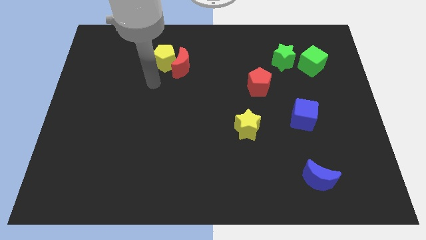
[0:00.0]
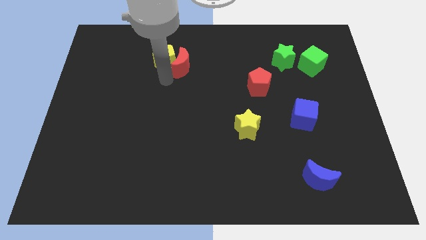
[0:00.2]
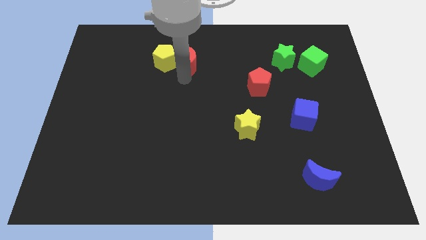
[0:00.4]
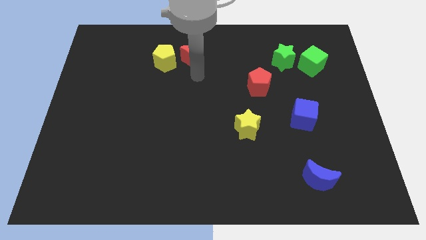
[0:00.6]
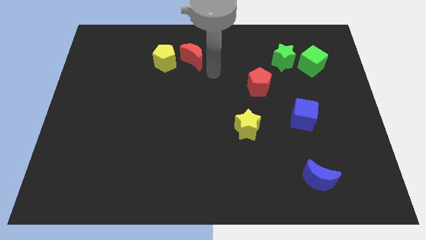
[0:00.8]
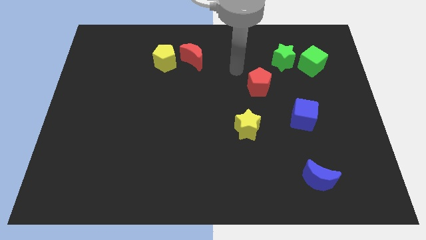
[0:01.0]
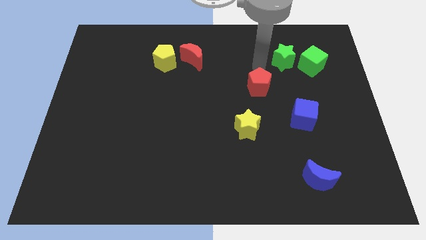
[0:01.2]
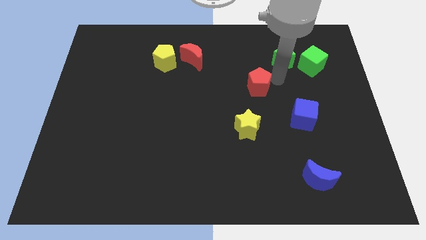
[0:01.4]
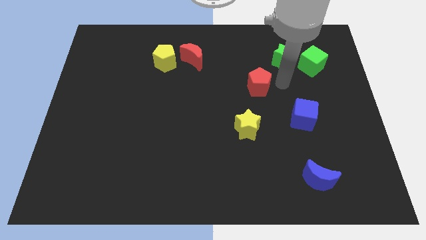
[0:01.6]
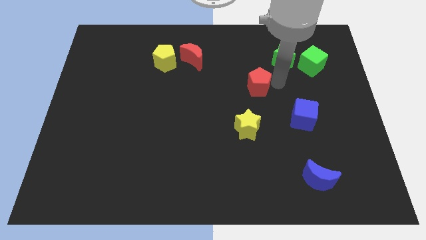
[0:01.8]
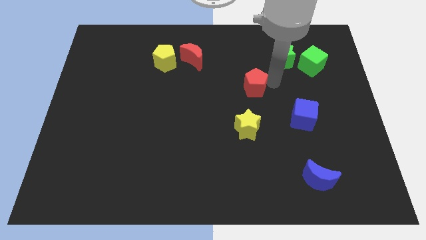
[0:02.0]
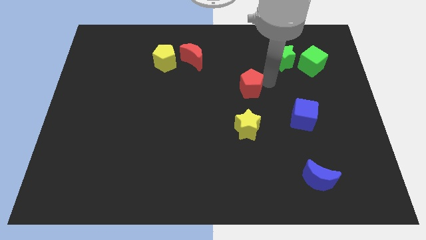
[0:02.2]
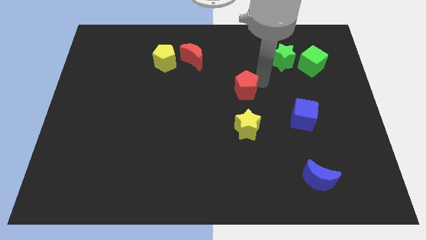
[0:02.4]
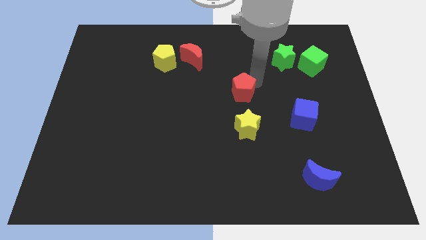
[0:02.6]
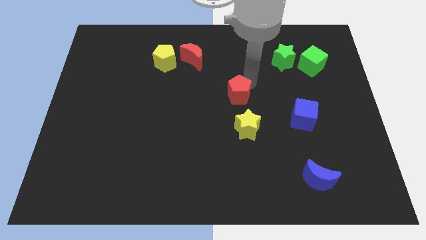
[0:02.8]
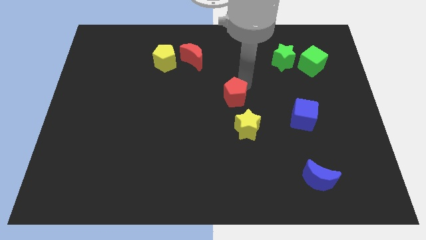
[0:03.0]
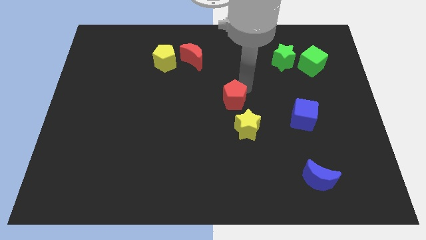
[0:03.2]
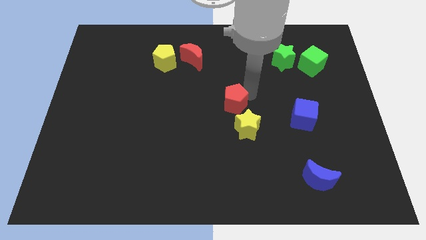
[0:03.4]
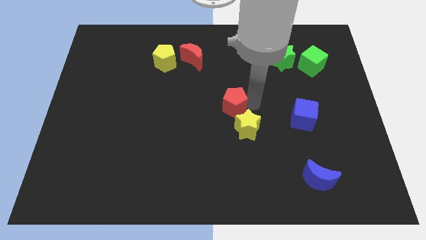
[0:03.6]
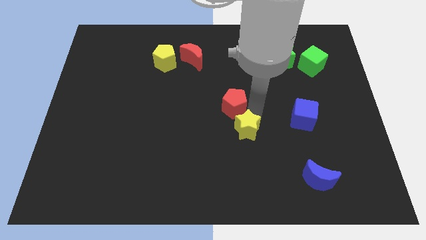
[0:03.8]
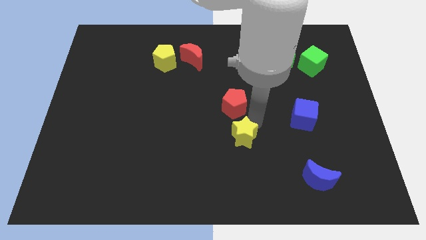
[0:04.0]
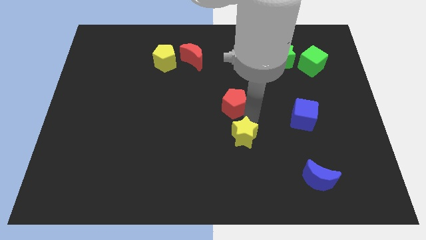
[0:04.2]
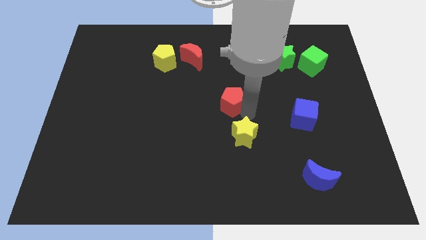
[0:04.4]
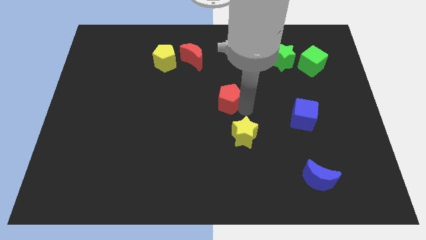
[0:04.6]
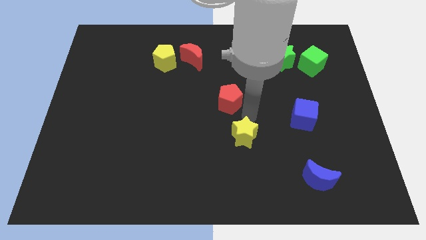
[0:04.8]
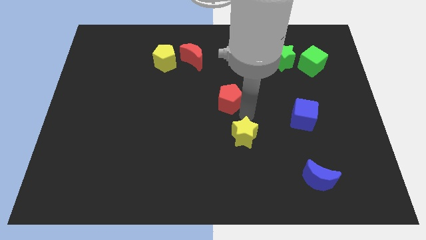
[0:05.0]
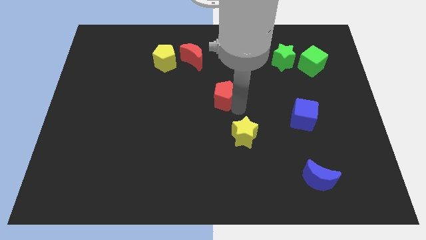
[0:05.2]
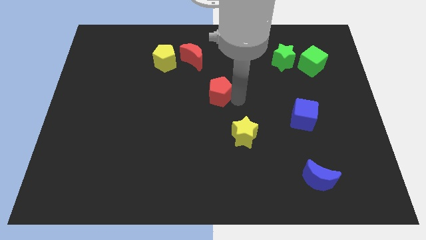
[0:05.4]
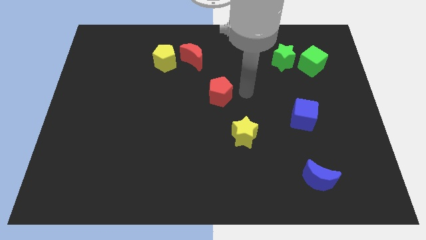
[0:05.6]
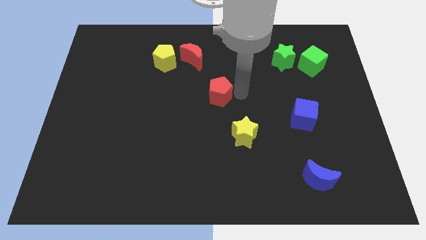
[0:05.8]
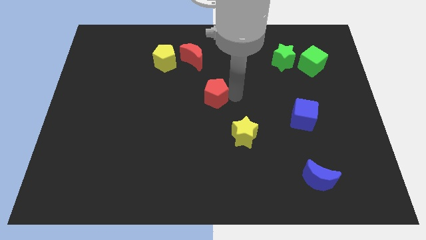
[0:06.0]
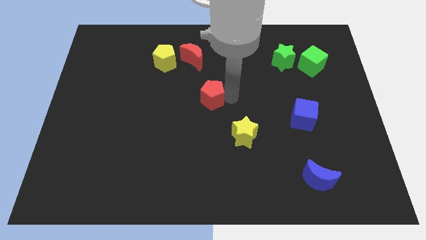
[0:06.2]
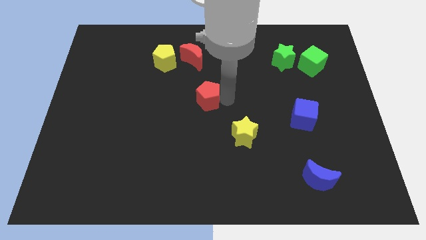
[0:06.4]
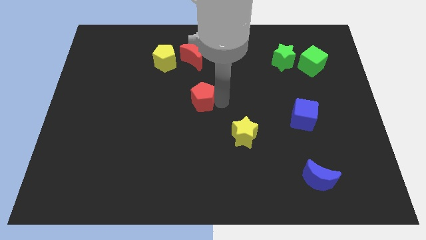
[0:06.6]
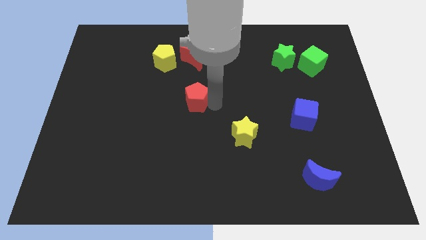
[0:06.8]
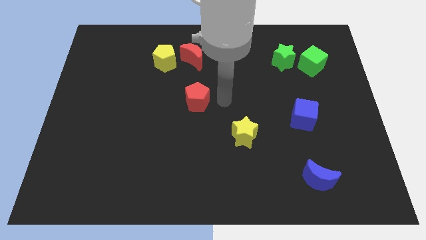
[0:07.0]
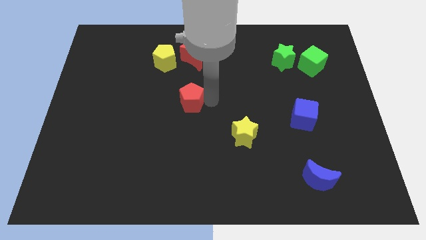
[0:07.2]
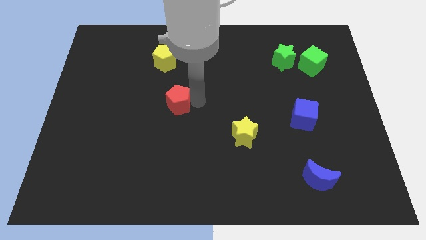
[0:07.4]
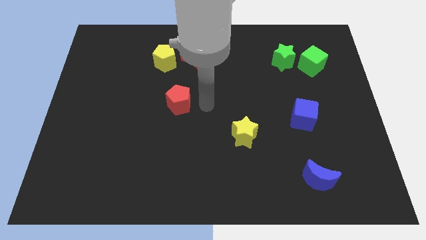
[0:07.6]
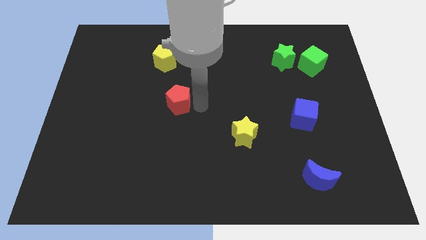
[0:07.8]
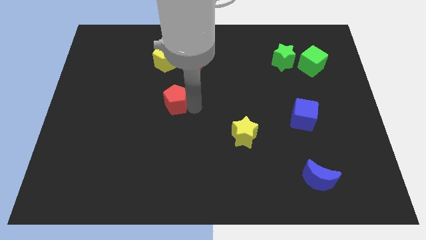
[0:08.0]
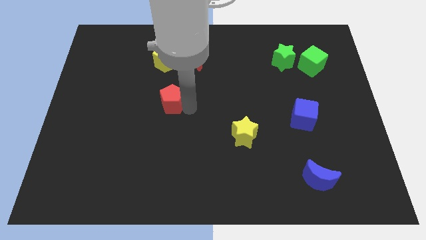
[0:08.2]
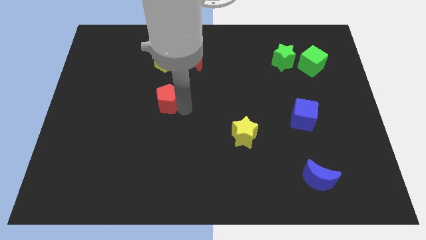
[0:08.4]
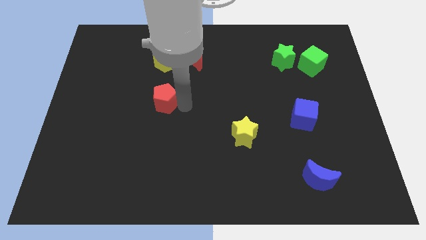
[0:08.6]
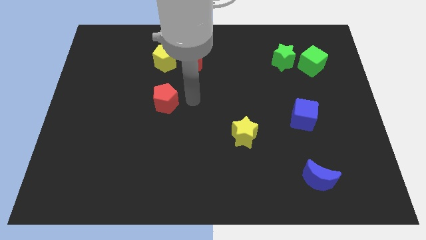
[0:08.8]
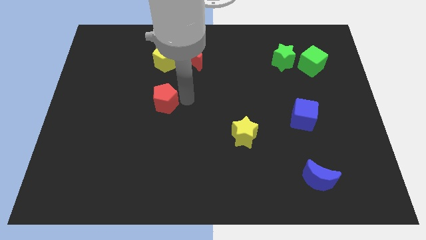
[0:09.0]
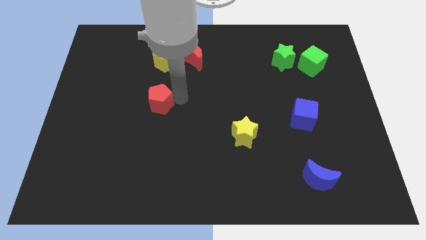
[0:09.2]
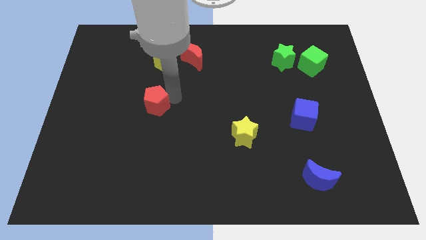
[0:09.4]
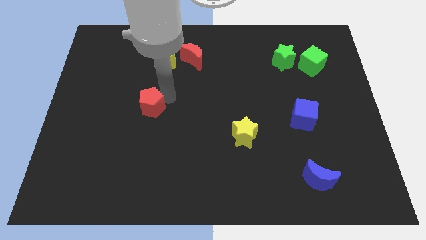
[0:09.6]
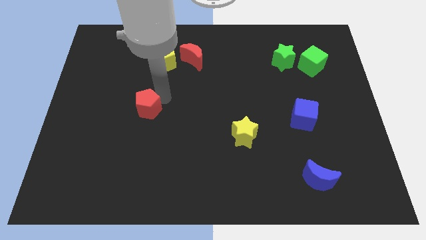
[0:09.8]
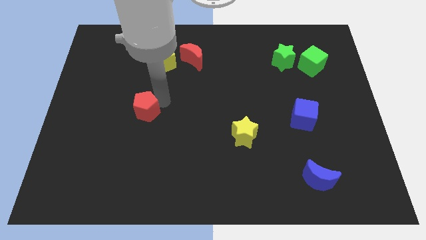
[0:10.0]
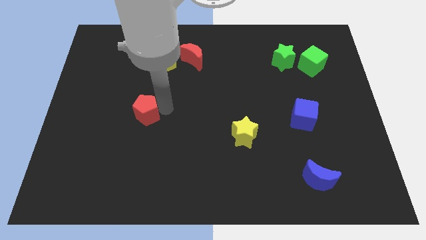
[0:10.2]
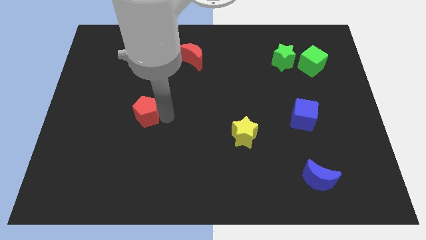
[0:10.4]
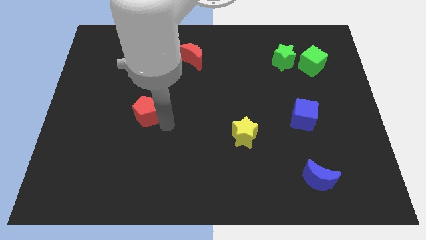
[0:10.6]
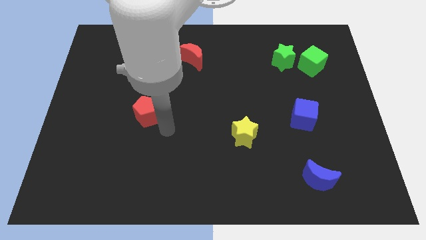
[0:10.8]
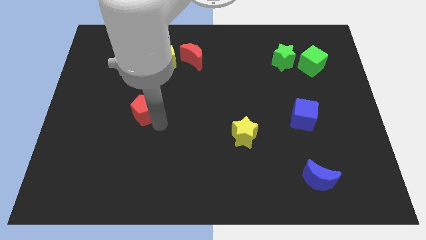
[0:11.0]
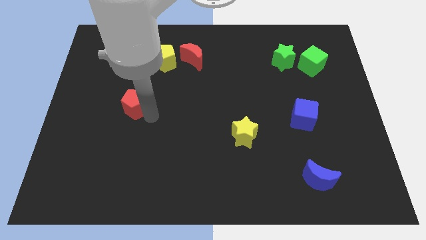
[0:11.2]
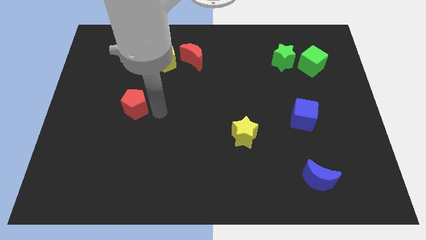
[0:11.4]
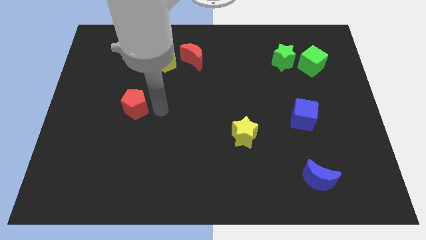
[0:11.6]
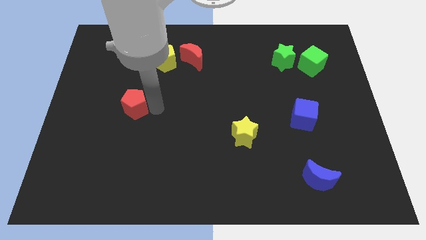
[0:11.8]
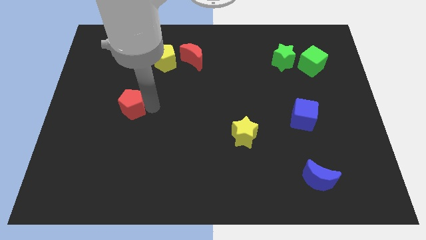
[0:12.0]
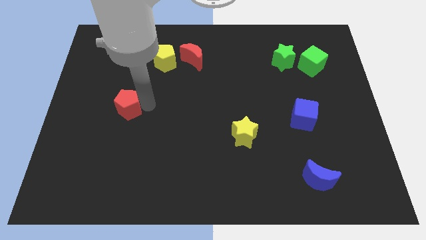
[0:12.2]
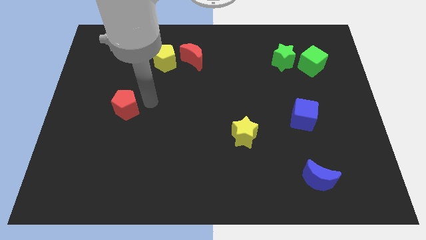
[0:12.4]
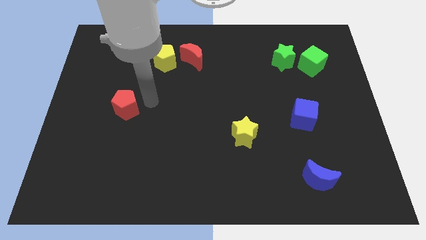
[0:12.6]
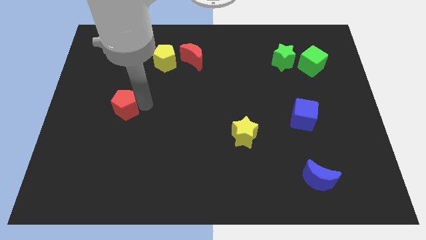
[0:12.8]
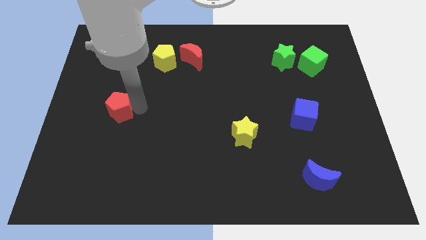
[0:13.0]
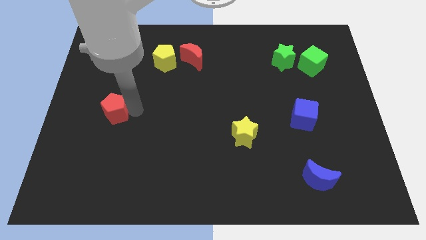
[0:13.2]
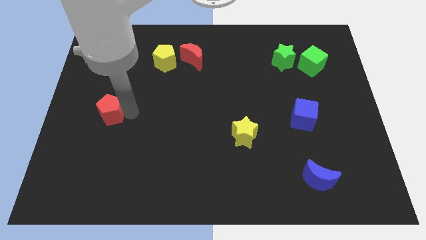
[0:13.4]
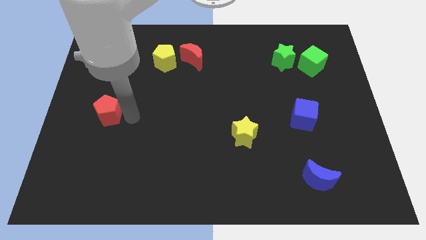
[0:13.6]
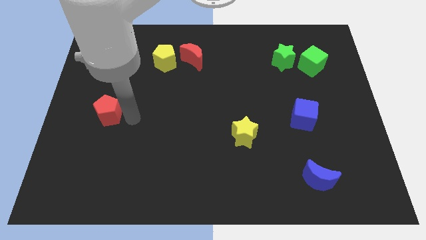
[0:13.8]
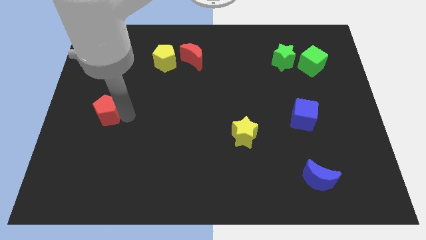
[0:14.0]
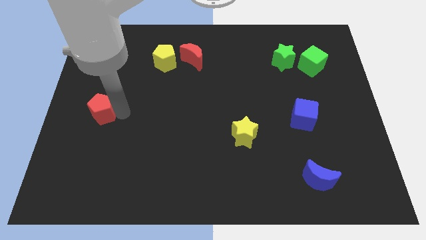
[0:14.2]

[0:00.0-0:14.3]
put the red pentagon to the left side of the board
